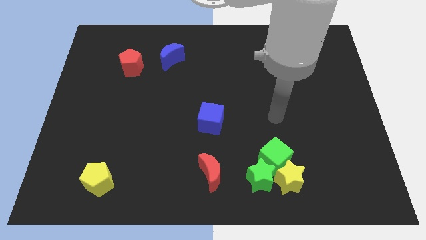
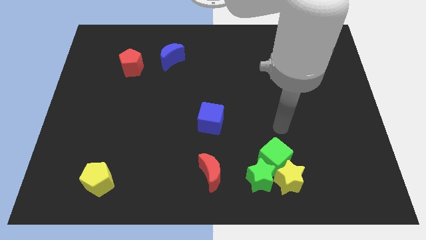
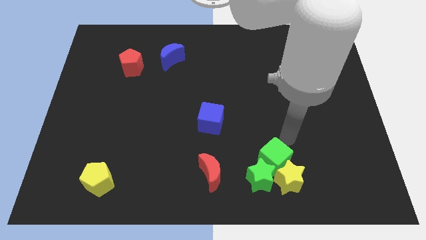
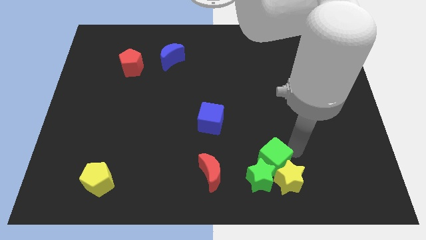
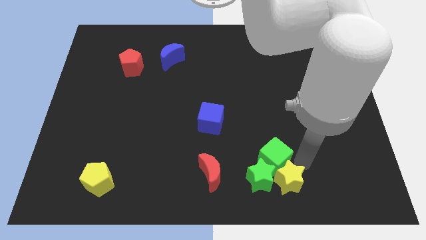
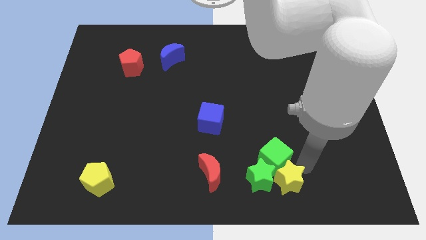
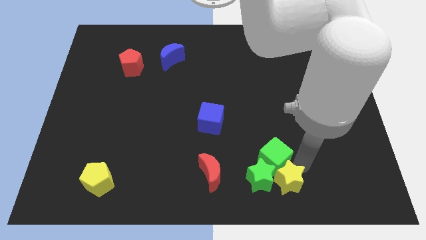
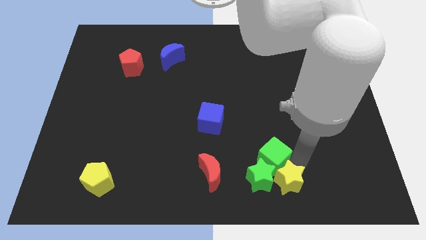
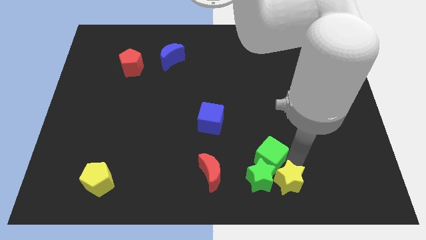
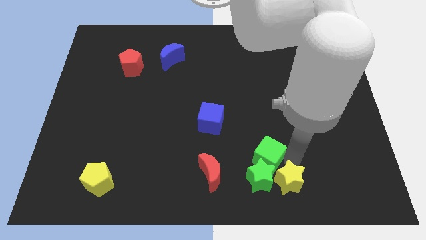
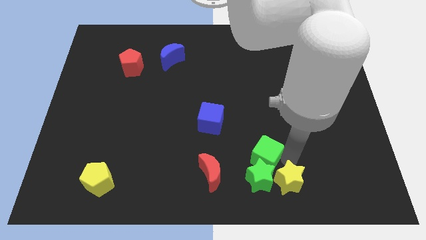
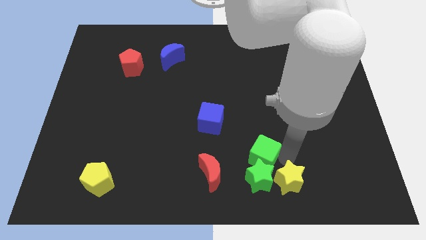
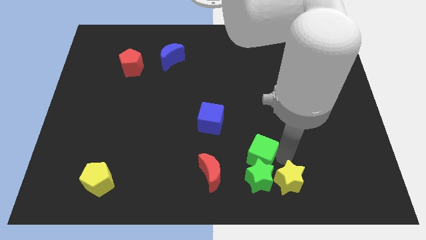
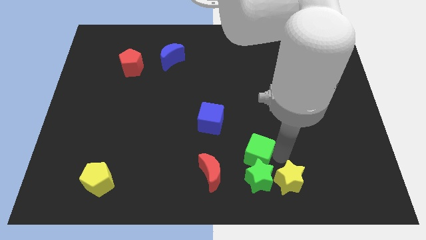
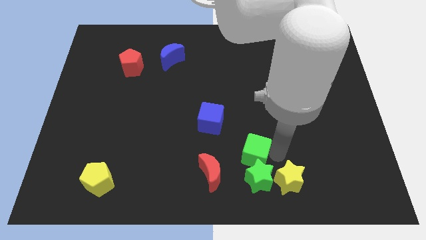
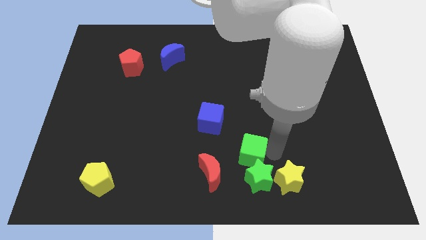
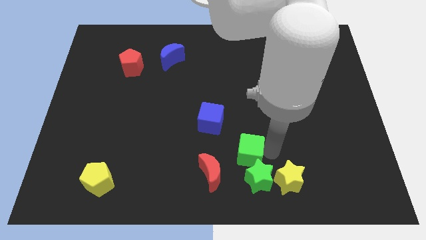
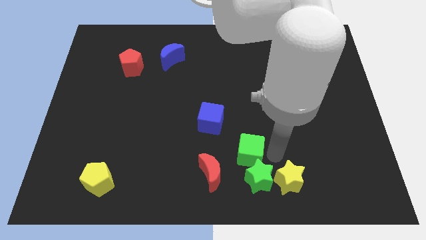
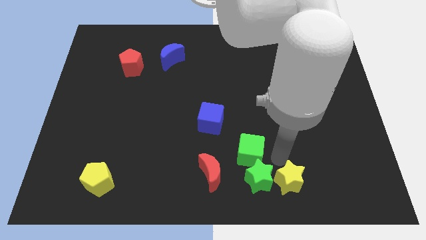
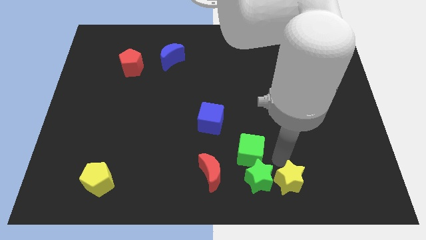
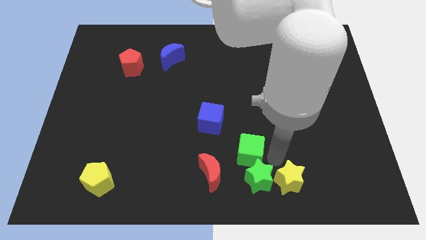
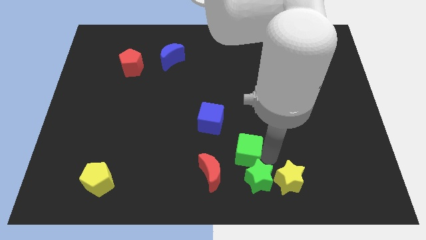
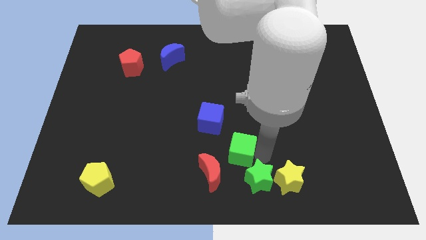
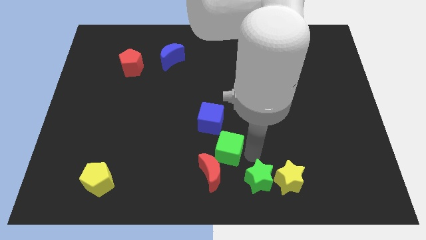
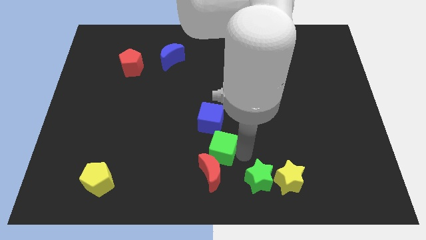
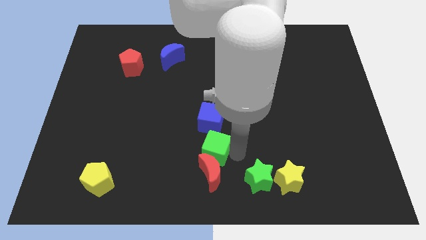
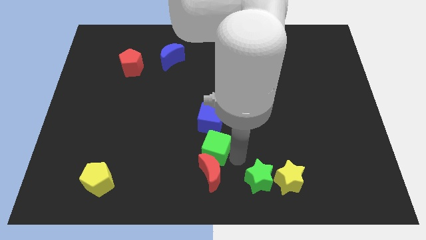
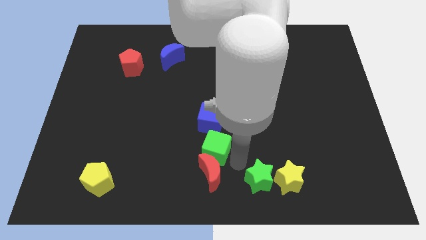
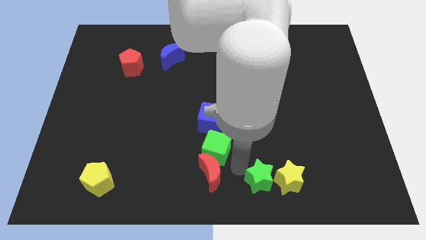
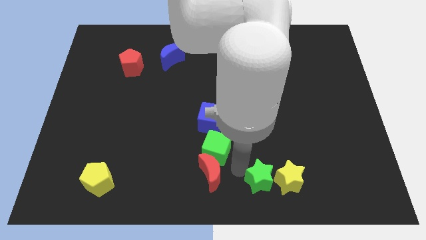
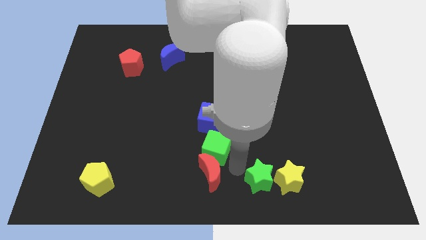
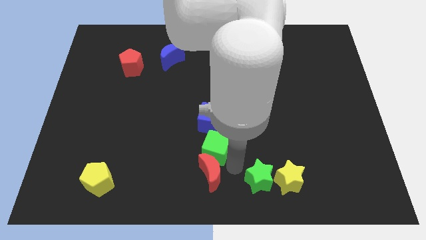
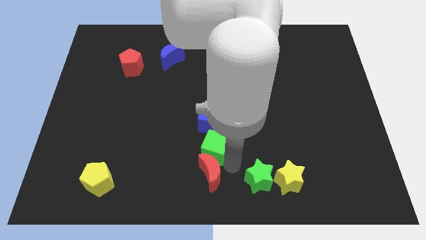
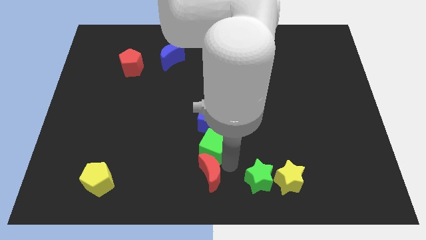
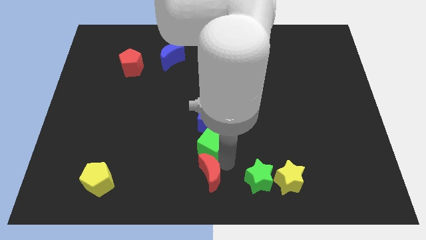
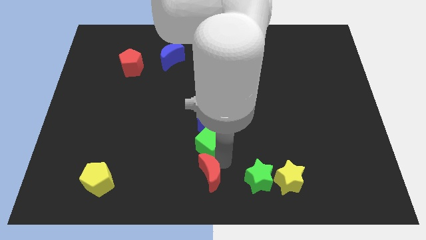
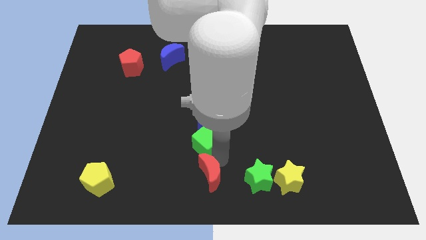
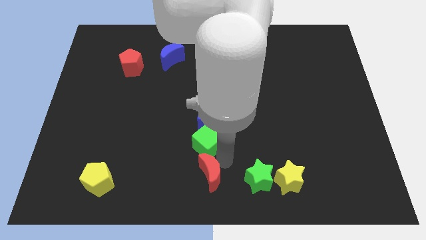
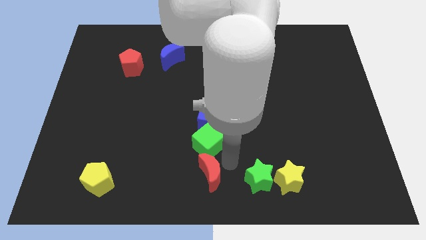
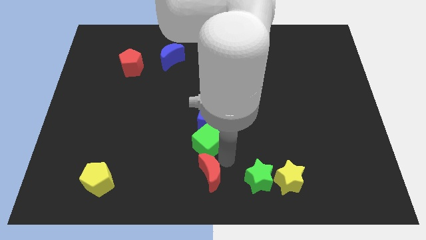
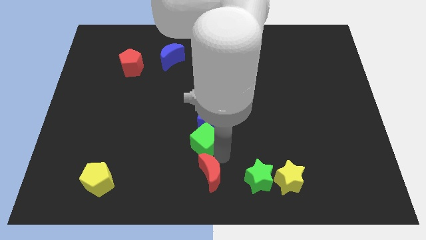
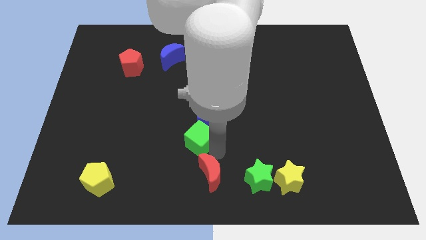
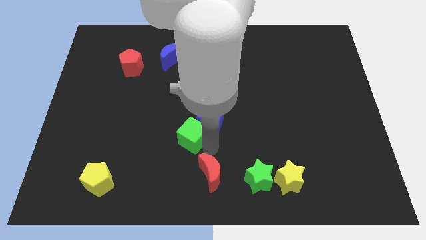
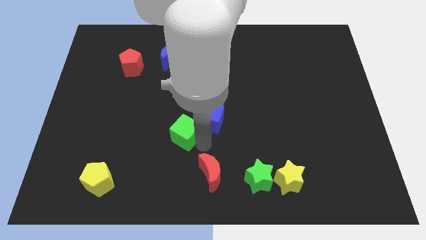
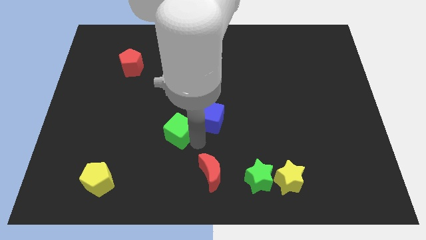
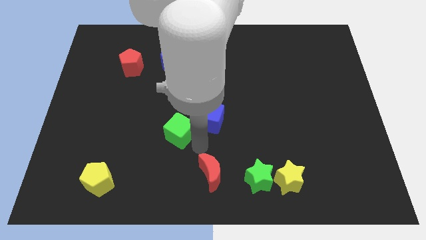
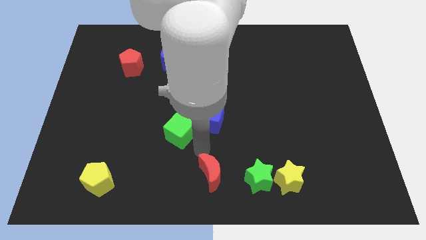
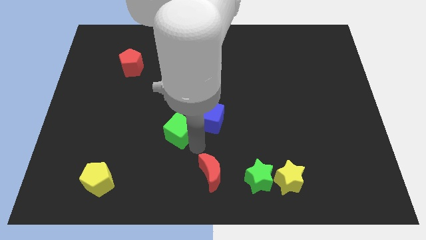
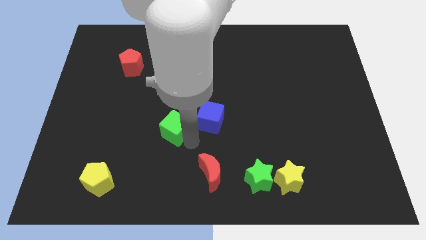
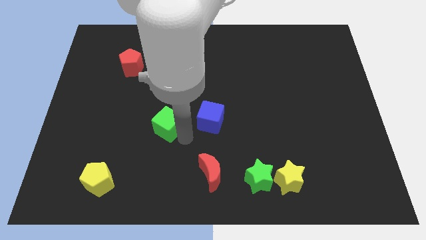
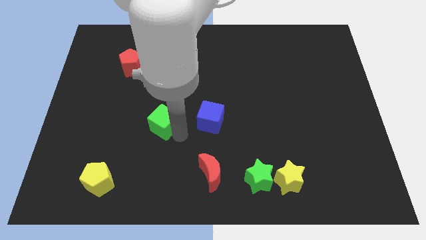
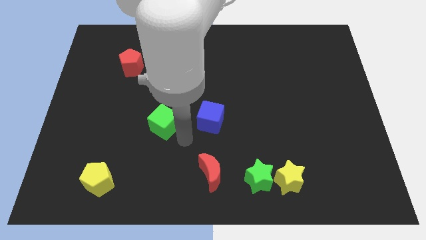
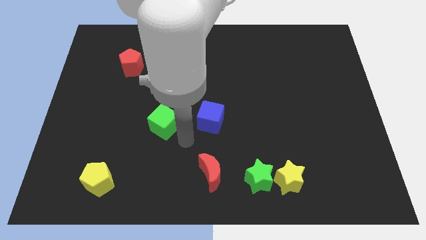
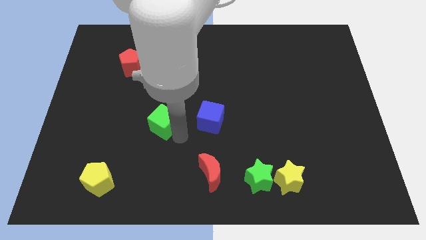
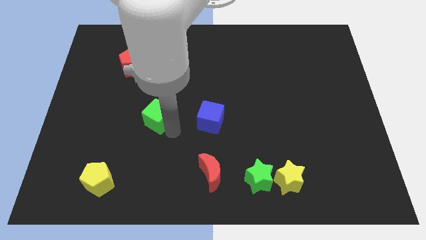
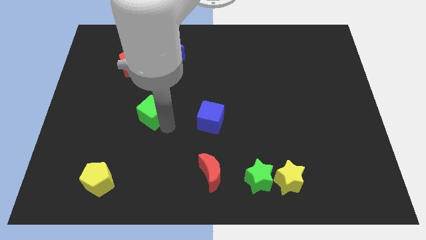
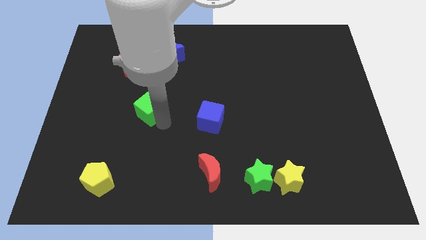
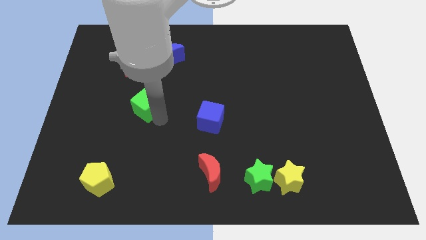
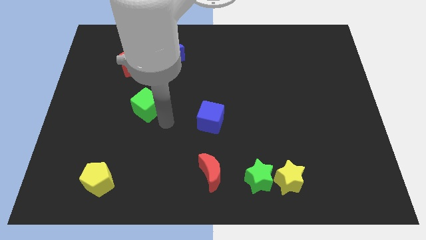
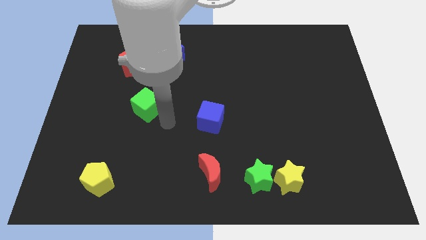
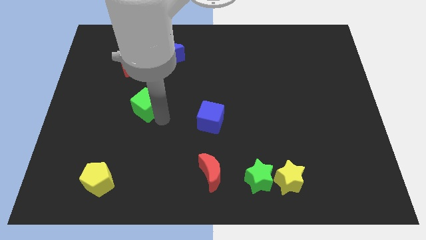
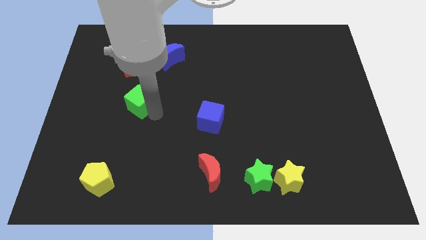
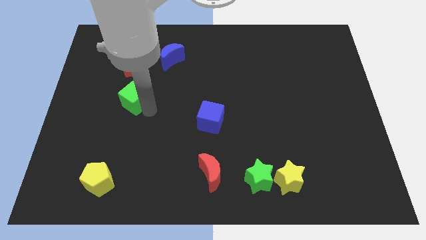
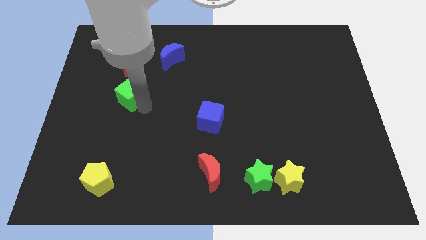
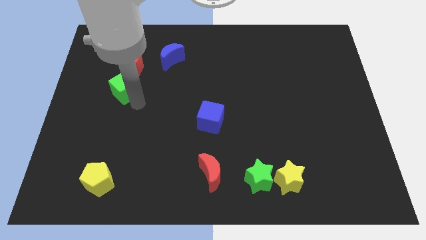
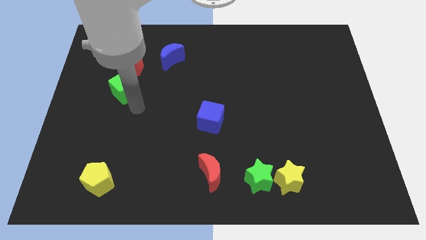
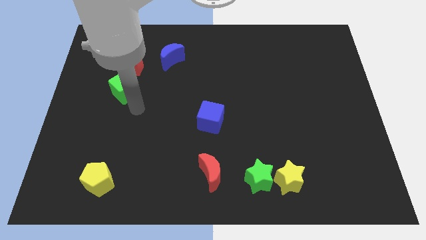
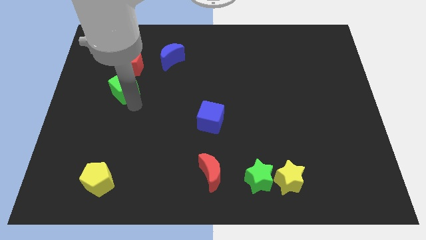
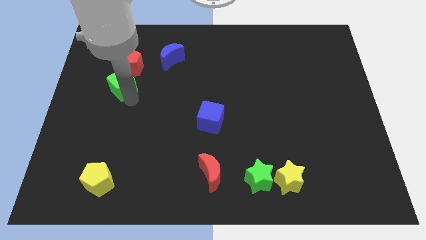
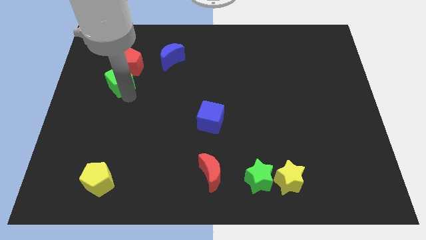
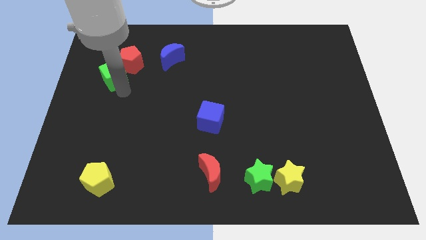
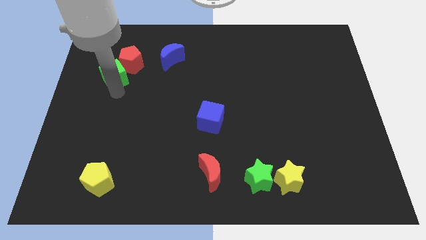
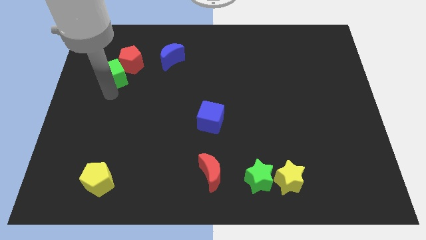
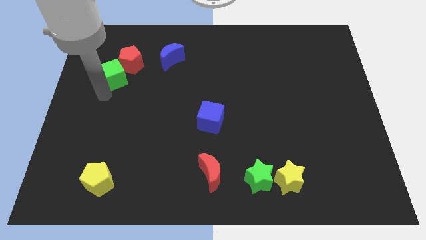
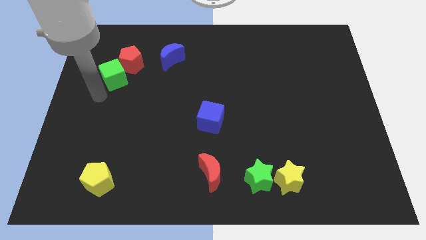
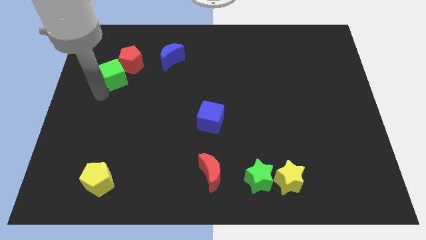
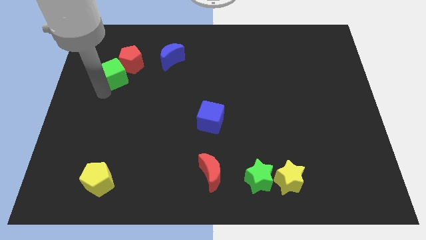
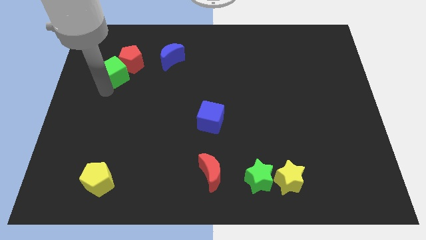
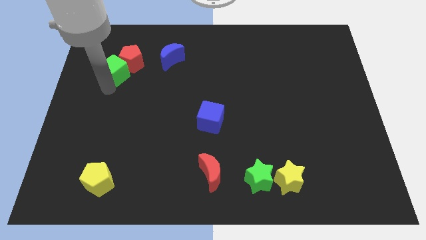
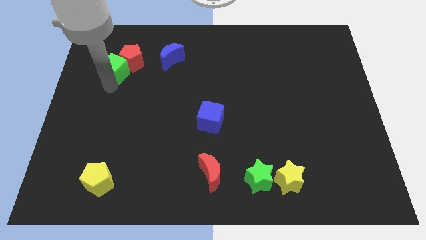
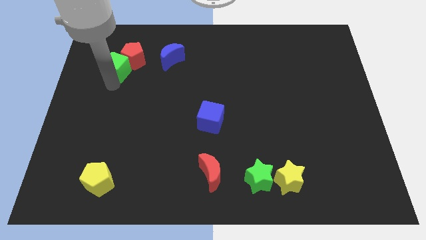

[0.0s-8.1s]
move the green cube to the left side of the blue moon
